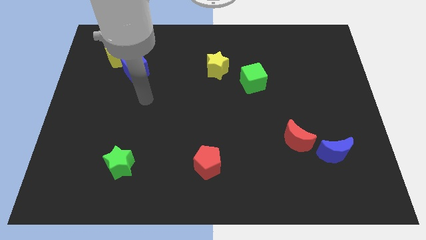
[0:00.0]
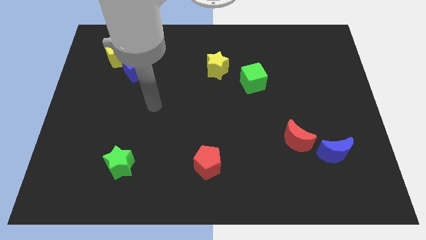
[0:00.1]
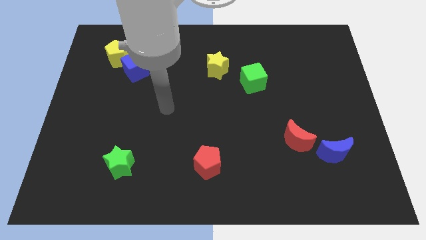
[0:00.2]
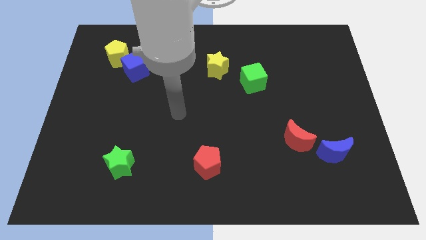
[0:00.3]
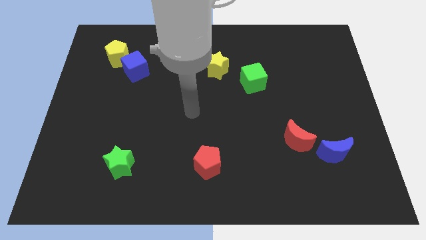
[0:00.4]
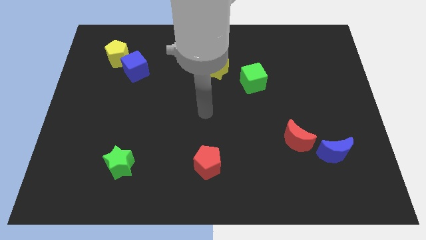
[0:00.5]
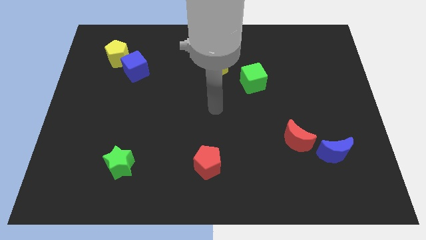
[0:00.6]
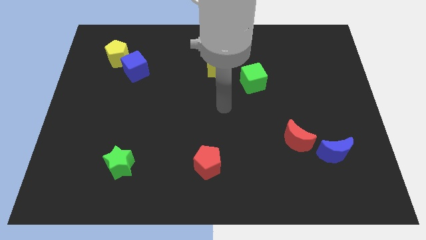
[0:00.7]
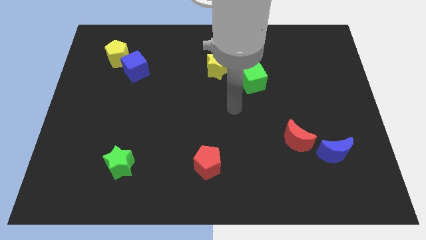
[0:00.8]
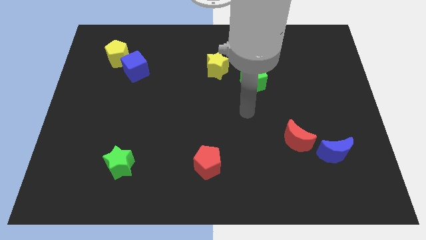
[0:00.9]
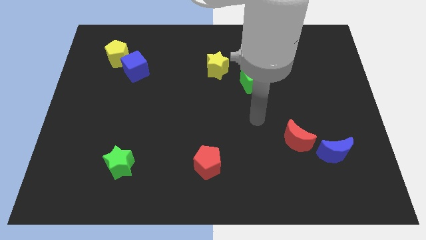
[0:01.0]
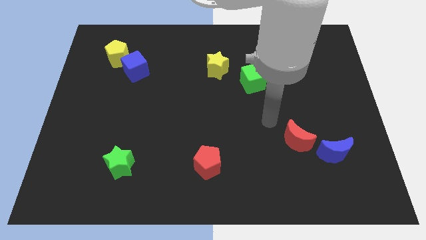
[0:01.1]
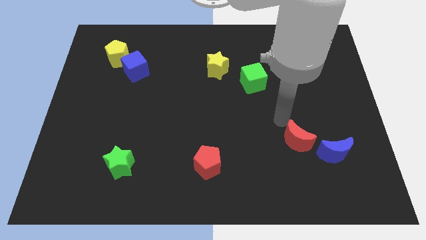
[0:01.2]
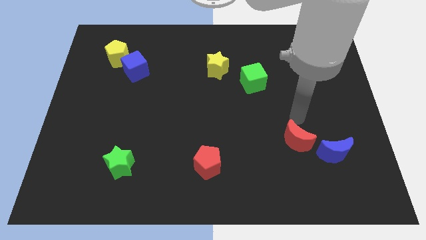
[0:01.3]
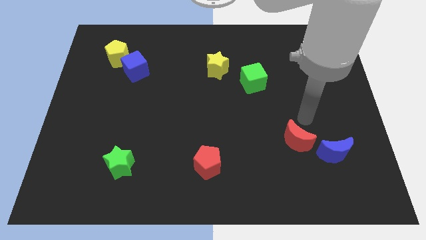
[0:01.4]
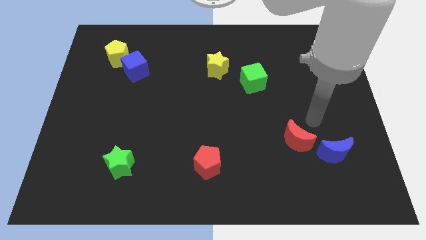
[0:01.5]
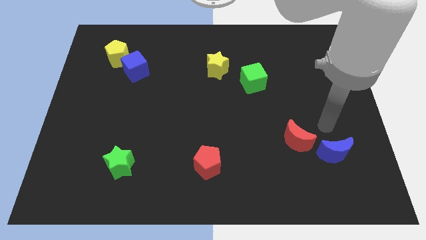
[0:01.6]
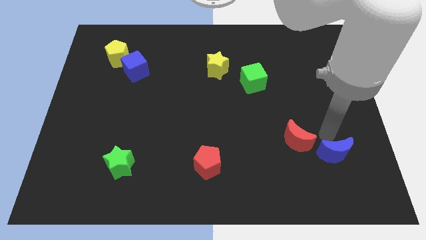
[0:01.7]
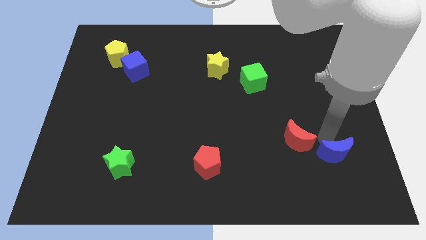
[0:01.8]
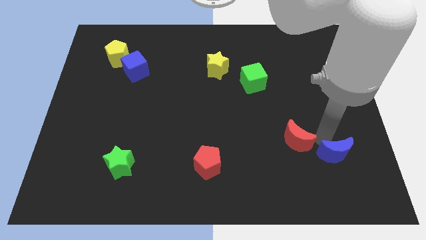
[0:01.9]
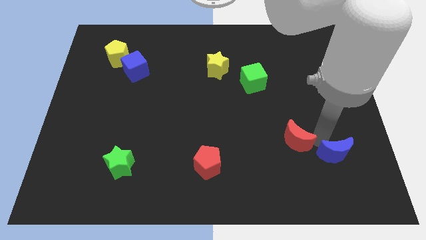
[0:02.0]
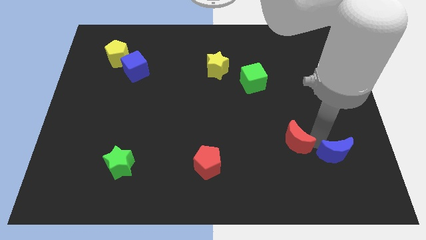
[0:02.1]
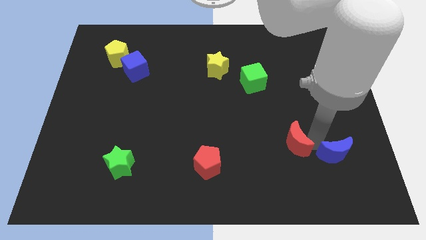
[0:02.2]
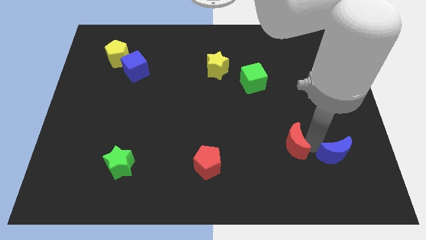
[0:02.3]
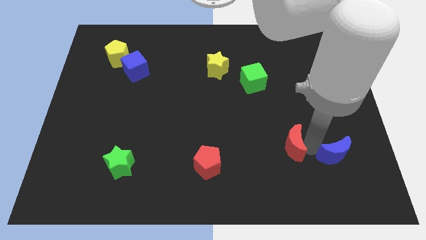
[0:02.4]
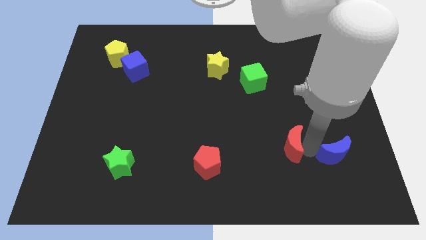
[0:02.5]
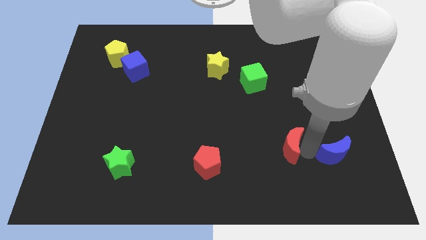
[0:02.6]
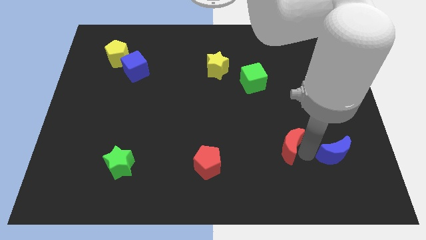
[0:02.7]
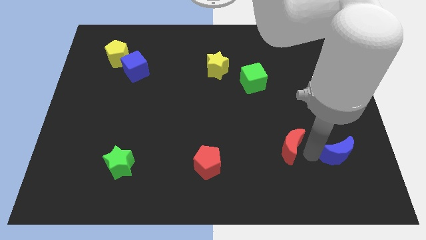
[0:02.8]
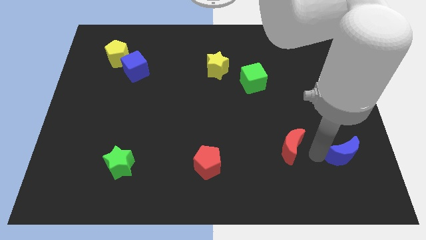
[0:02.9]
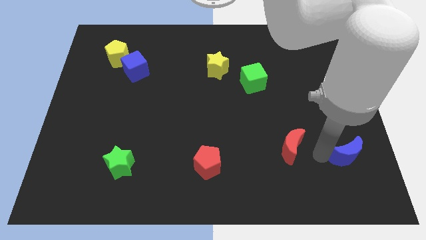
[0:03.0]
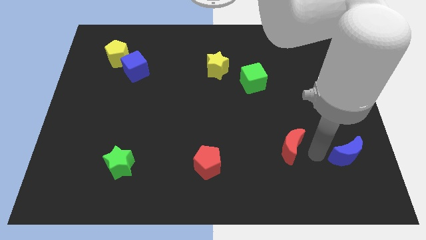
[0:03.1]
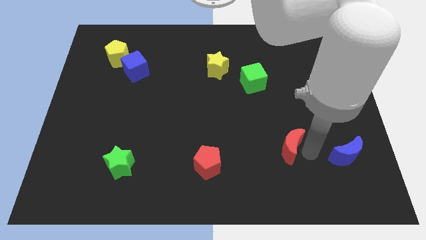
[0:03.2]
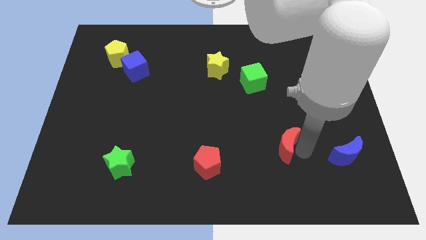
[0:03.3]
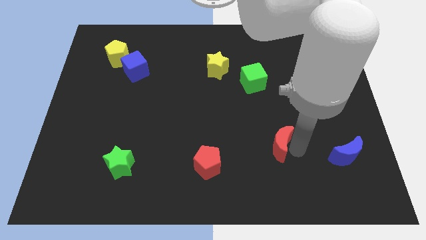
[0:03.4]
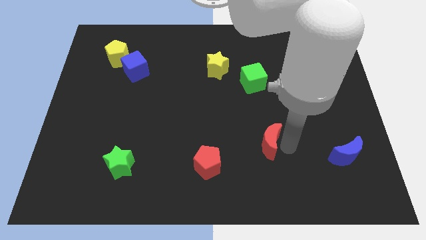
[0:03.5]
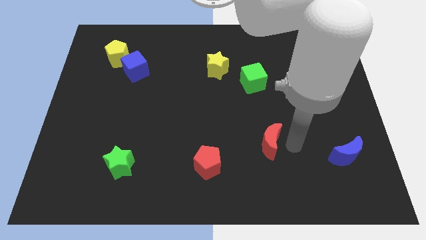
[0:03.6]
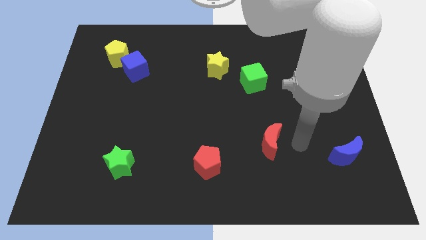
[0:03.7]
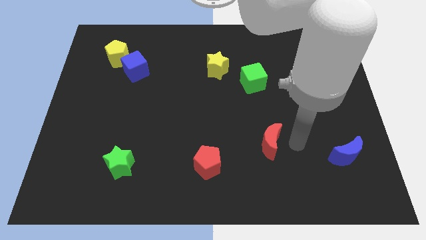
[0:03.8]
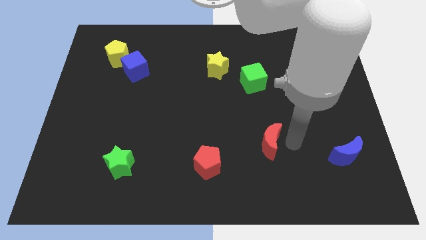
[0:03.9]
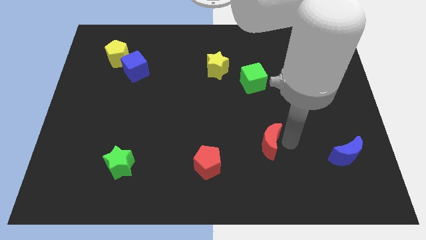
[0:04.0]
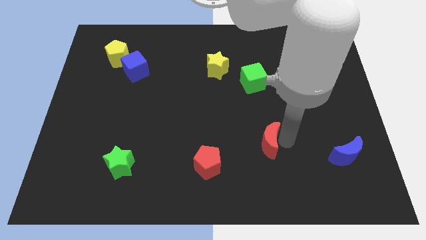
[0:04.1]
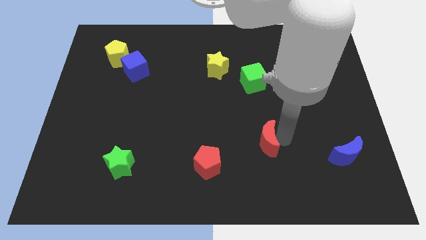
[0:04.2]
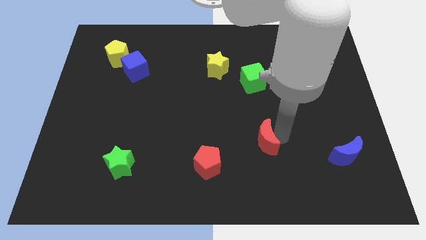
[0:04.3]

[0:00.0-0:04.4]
move the red moon a little left

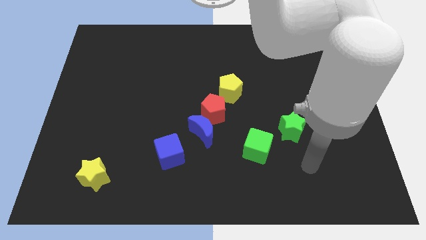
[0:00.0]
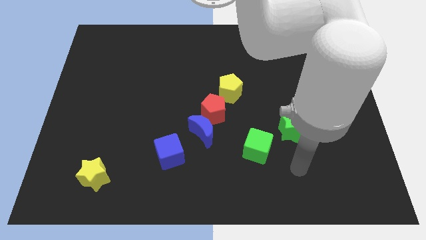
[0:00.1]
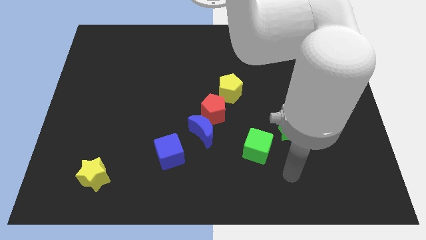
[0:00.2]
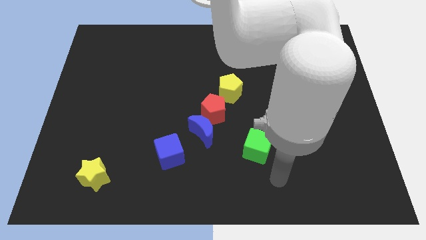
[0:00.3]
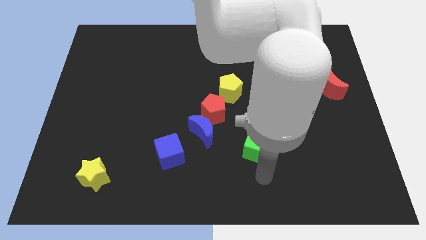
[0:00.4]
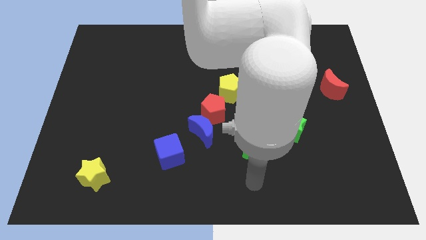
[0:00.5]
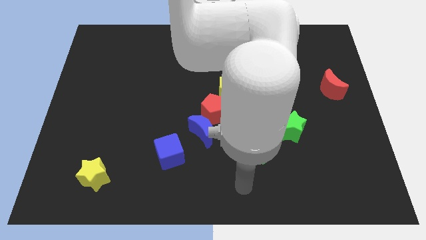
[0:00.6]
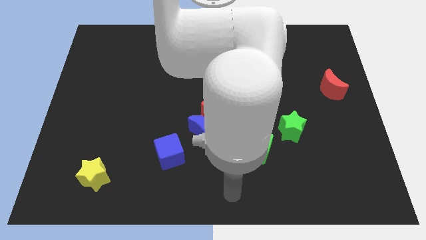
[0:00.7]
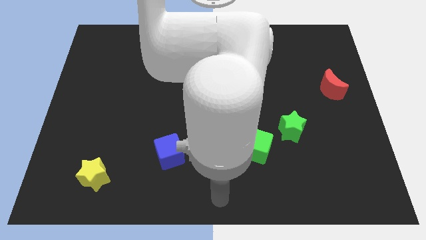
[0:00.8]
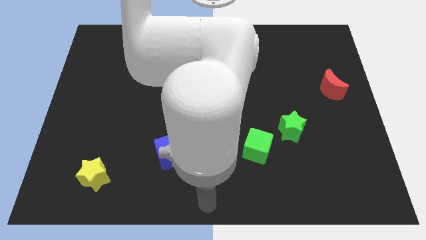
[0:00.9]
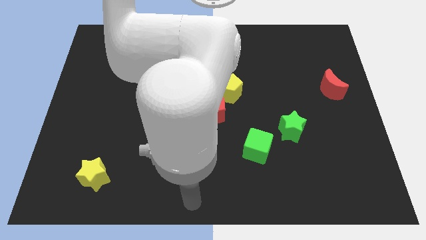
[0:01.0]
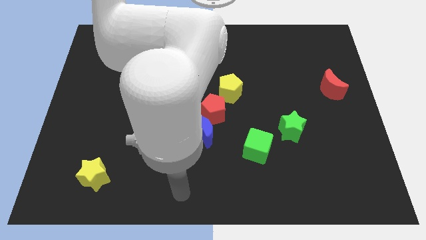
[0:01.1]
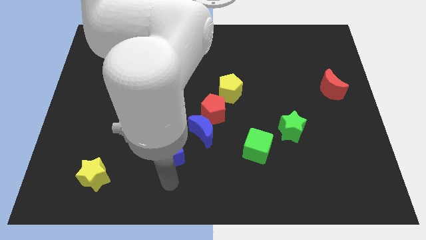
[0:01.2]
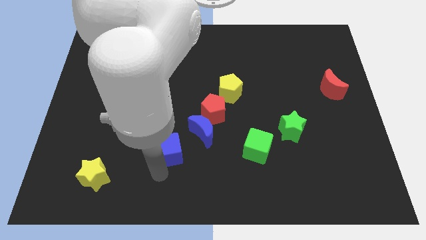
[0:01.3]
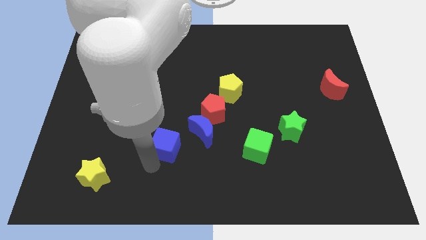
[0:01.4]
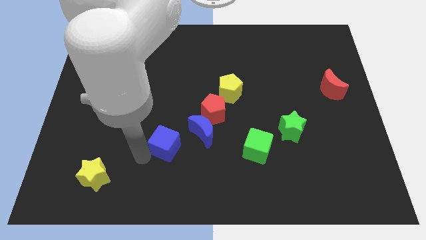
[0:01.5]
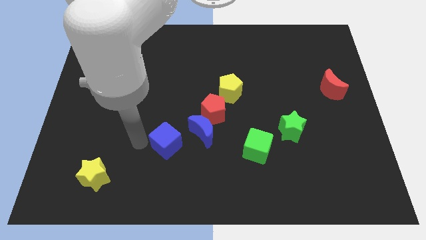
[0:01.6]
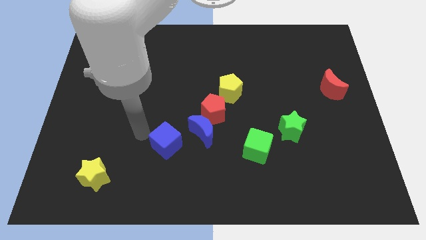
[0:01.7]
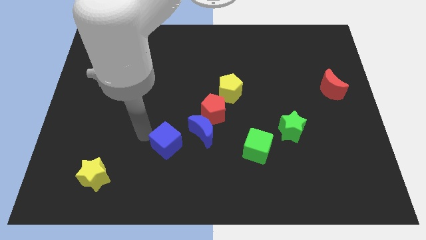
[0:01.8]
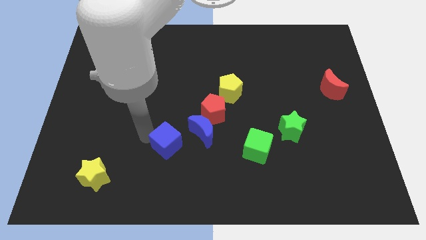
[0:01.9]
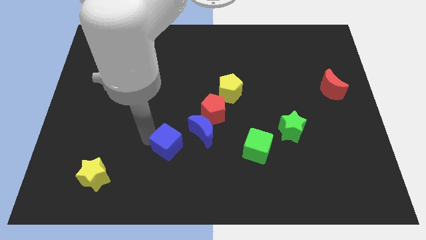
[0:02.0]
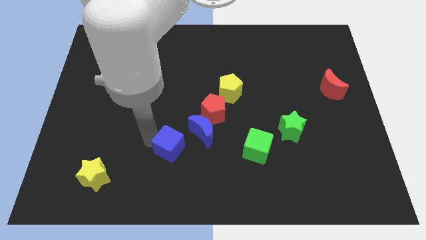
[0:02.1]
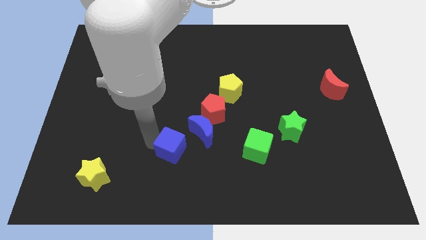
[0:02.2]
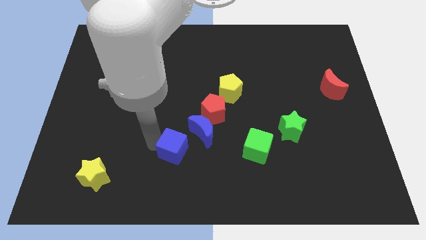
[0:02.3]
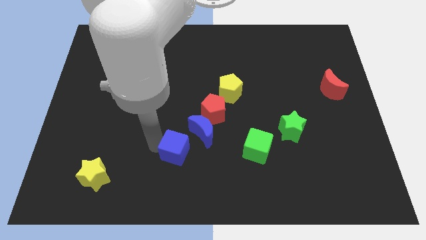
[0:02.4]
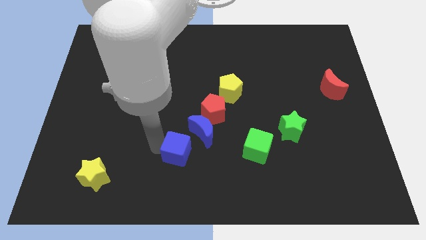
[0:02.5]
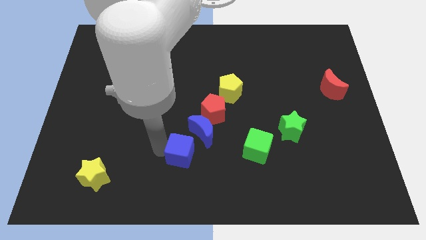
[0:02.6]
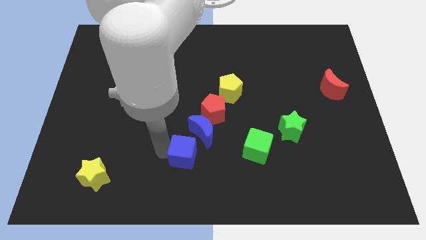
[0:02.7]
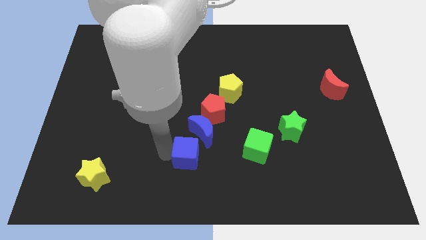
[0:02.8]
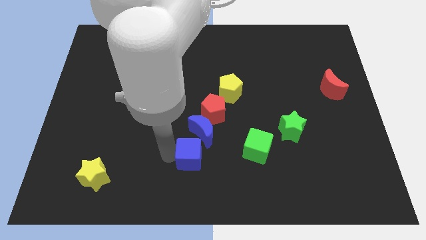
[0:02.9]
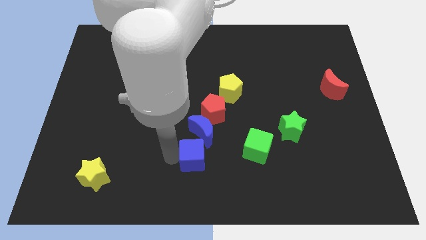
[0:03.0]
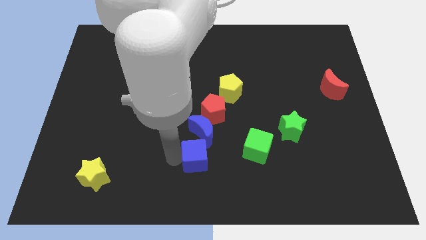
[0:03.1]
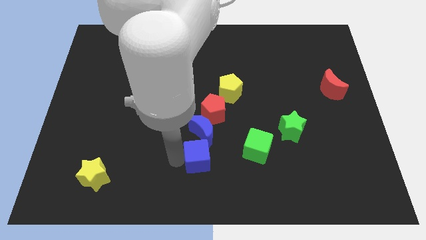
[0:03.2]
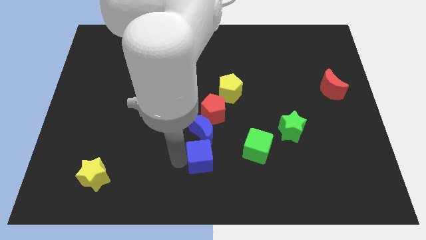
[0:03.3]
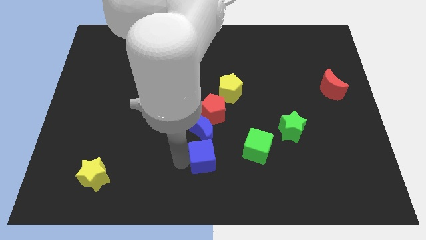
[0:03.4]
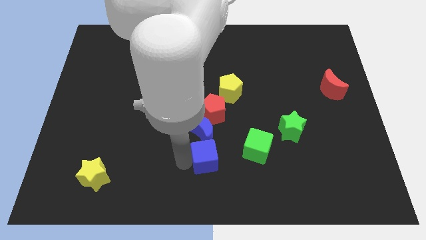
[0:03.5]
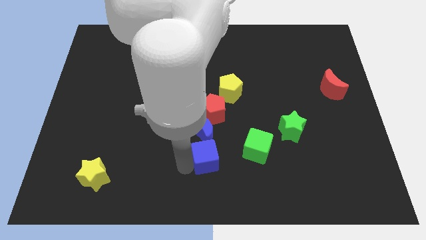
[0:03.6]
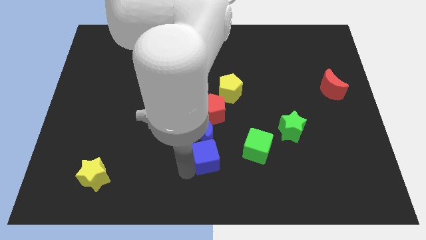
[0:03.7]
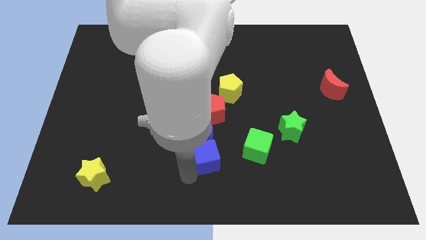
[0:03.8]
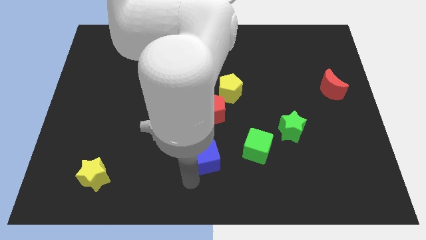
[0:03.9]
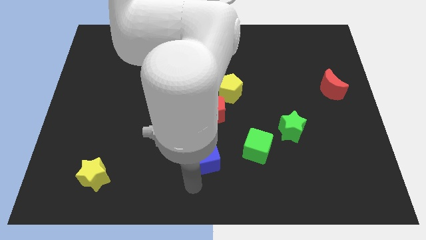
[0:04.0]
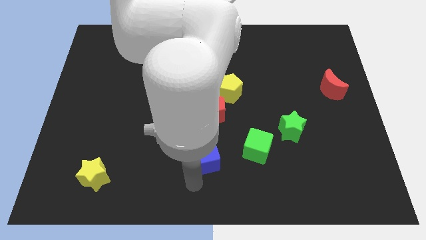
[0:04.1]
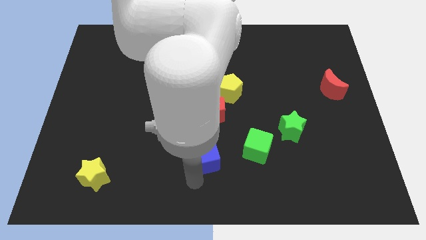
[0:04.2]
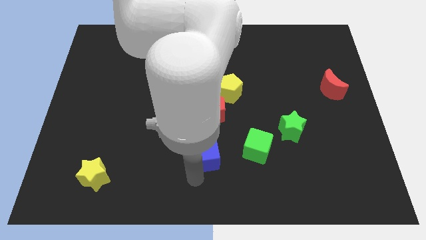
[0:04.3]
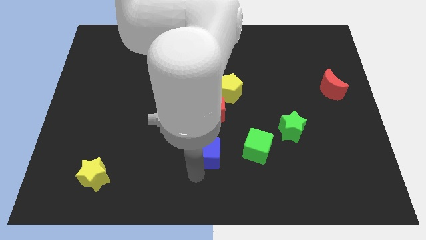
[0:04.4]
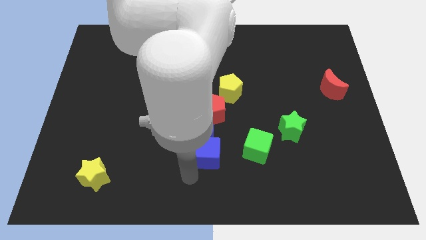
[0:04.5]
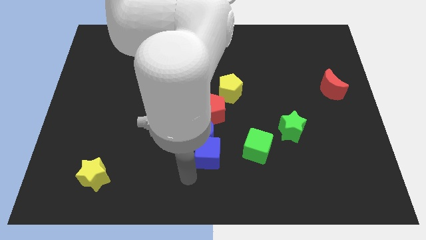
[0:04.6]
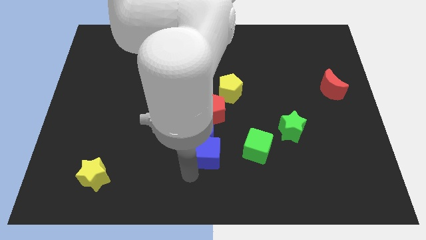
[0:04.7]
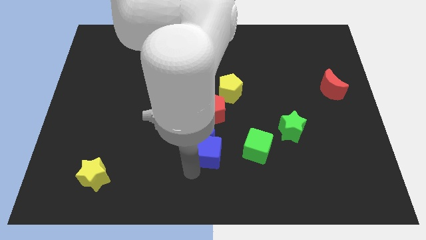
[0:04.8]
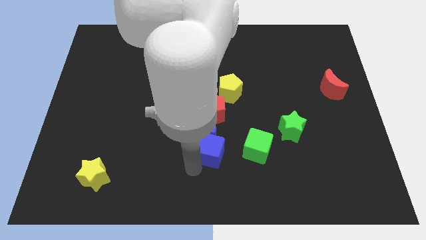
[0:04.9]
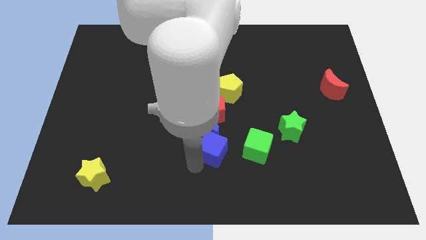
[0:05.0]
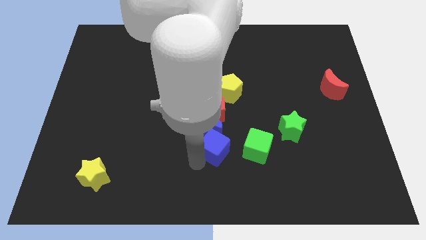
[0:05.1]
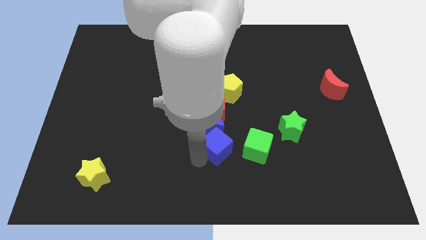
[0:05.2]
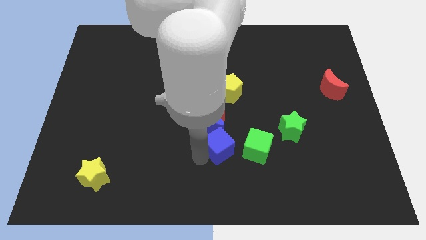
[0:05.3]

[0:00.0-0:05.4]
push the blue cube up and to the right diagonally a little bit
